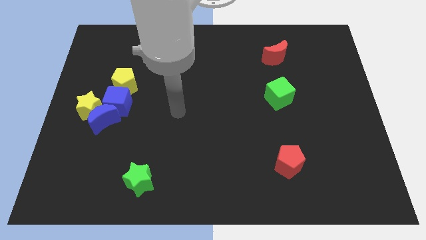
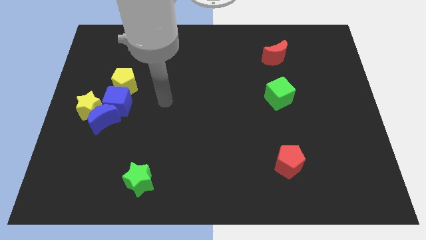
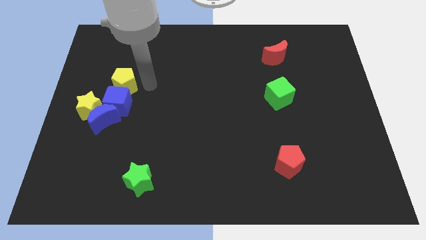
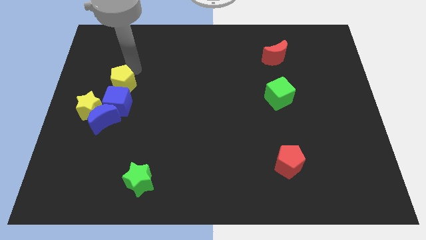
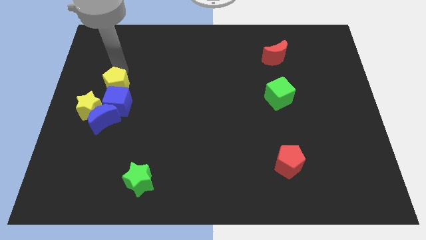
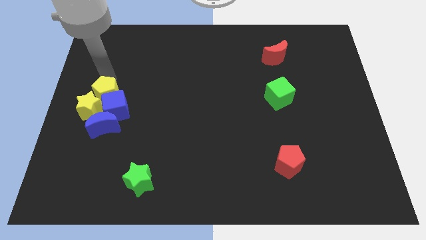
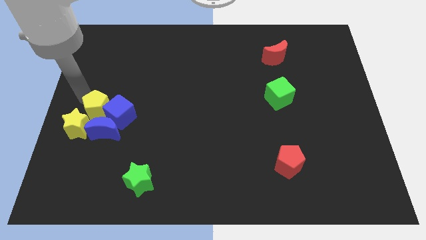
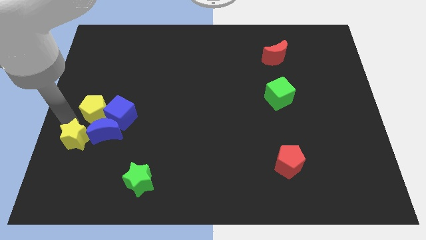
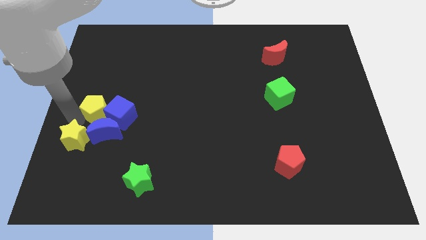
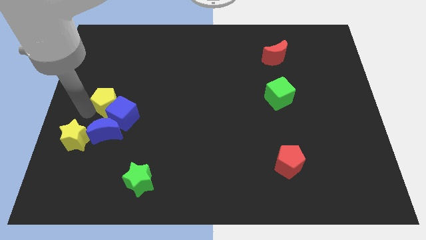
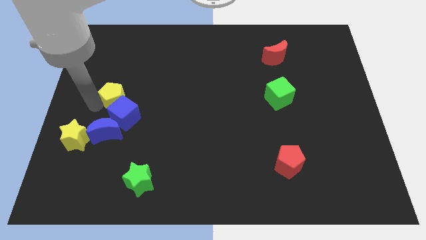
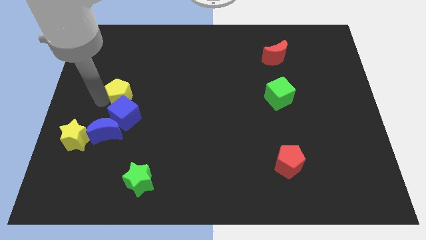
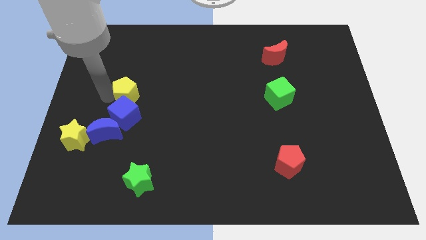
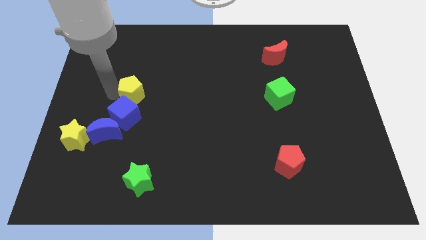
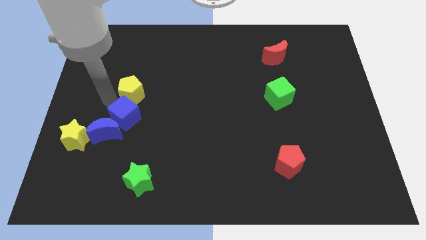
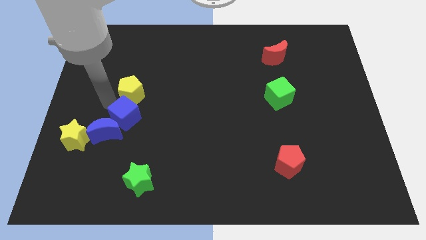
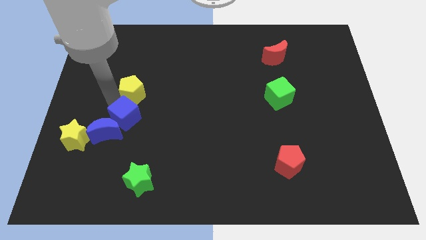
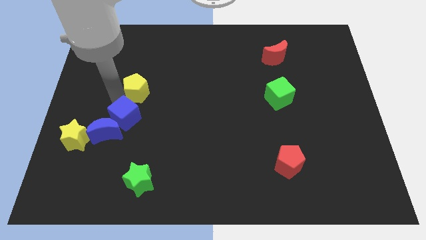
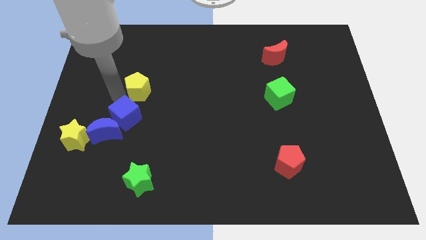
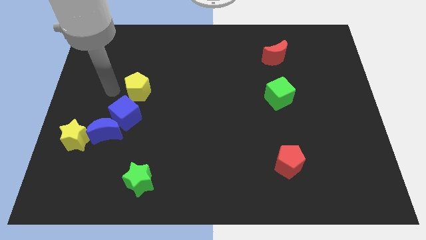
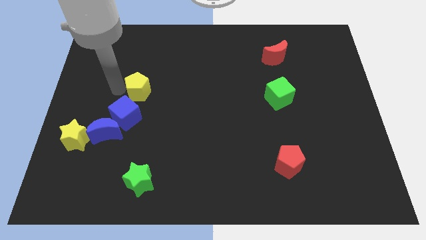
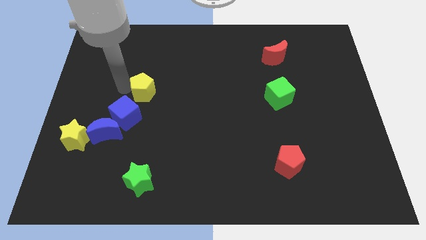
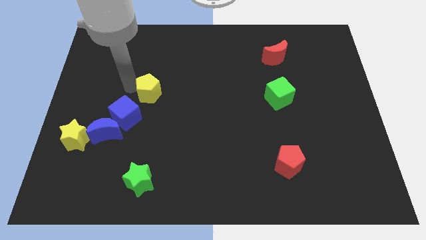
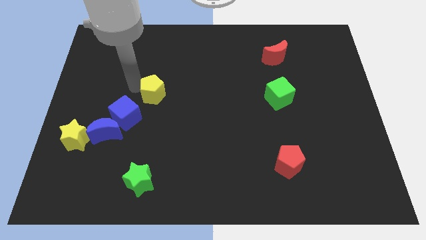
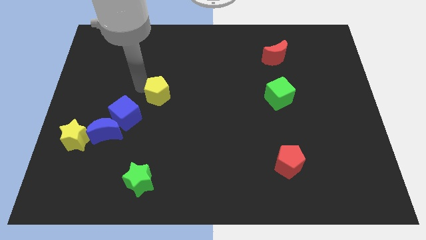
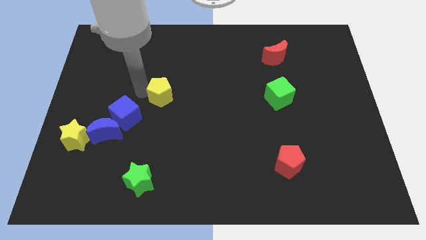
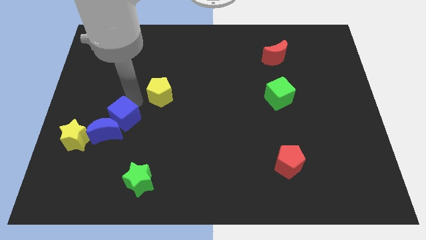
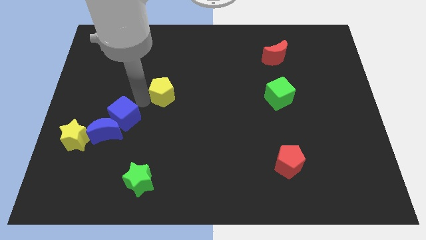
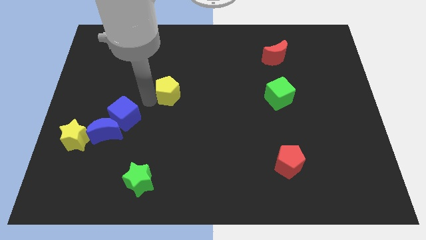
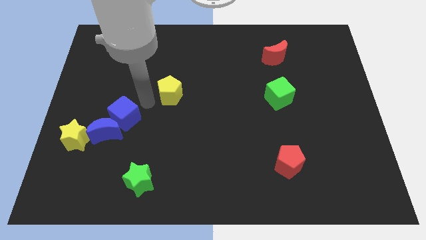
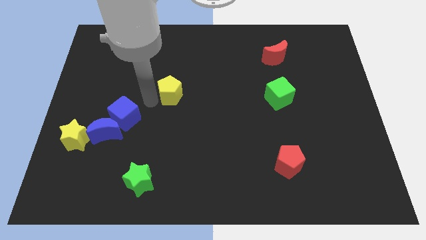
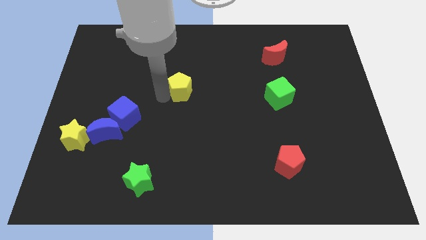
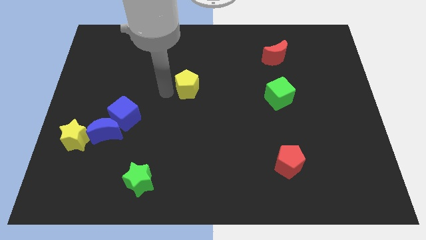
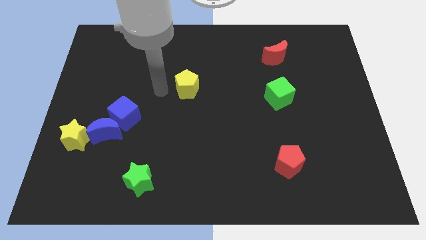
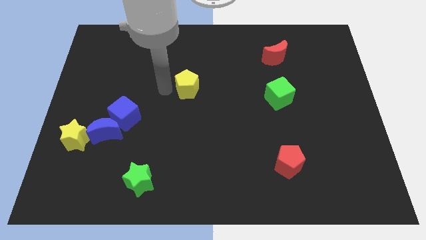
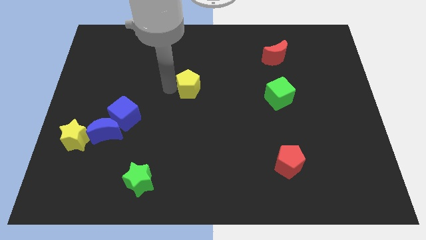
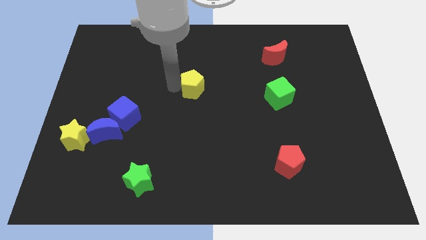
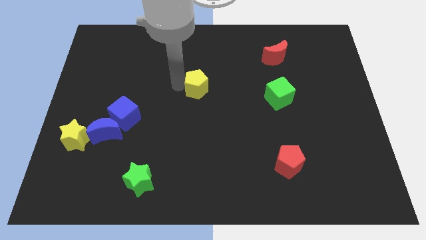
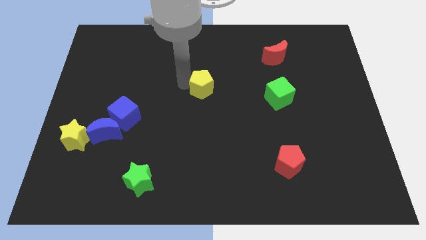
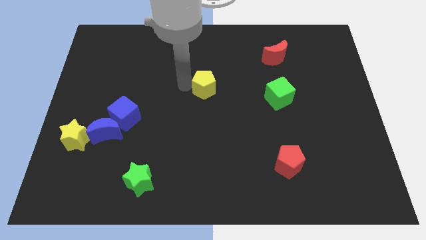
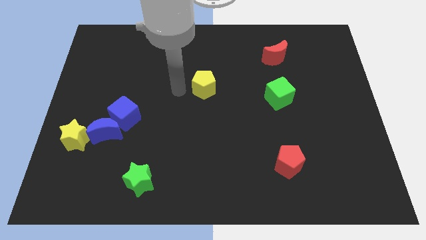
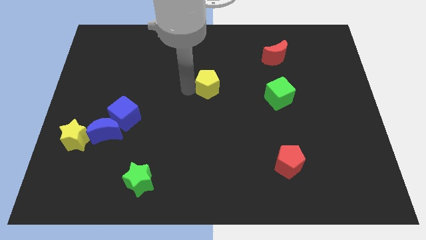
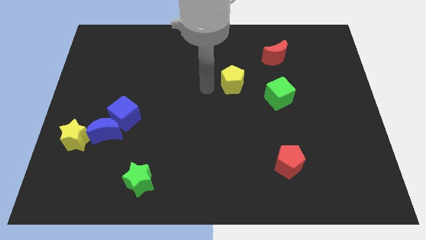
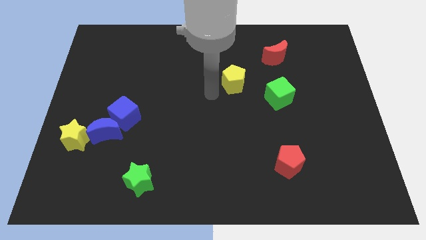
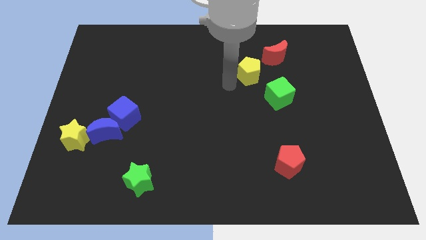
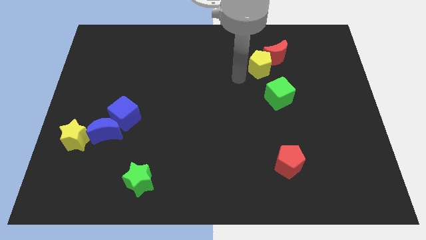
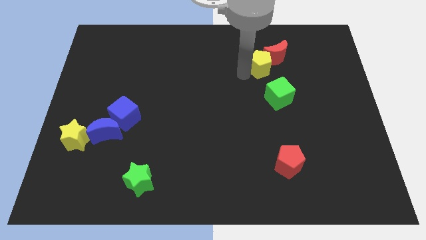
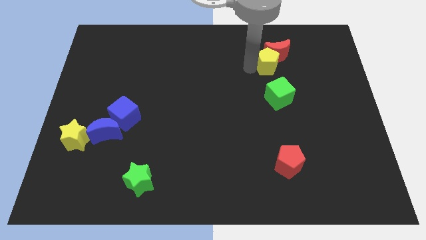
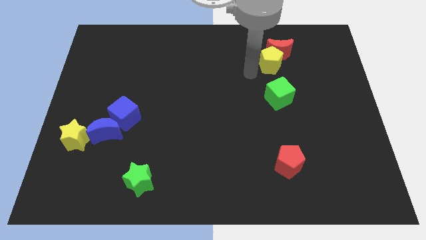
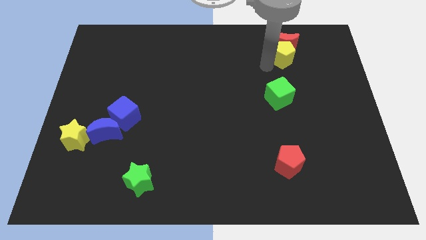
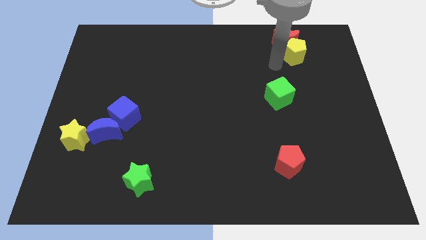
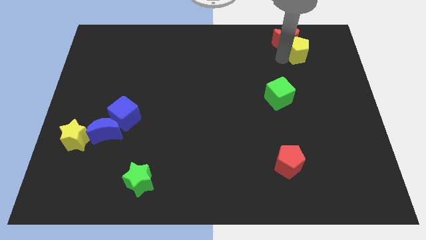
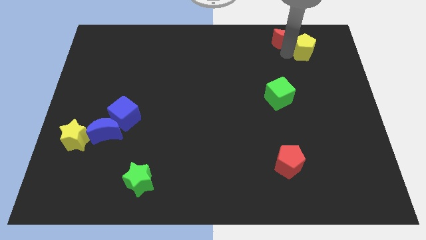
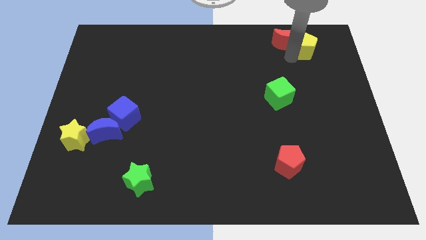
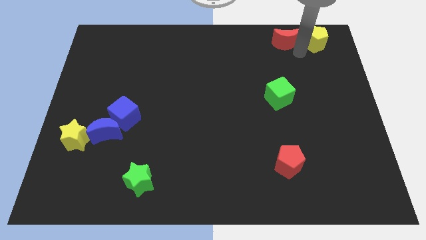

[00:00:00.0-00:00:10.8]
slide the yellow pentagon to the top right of the board

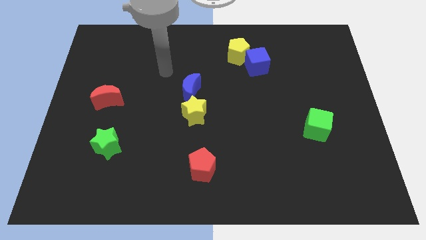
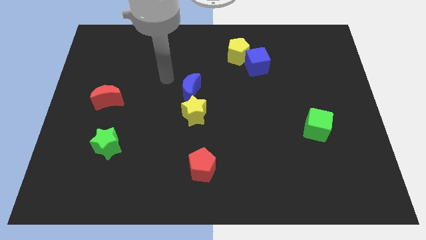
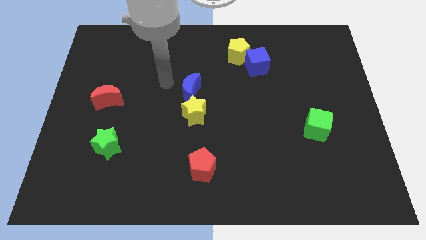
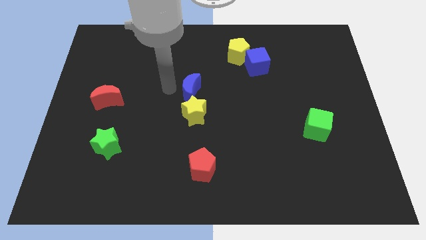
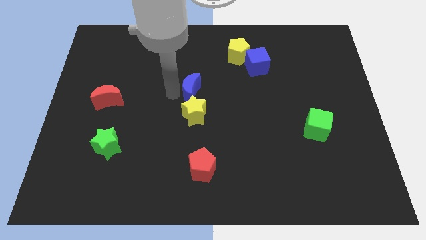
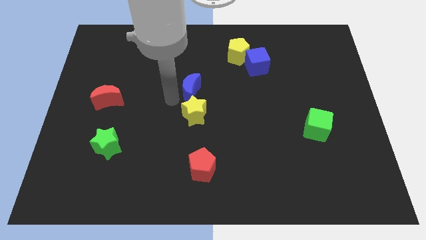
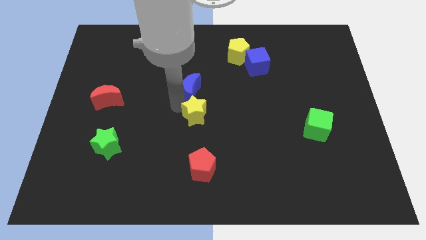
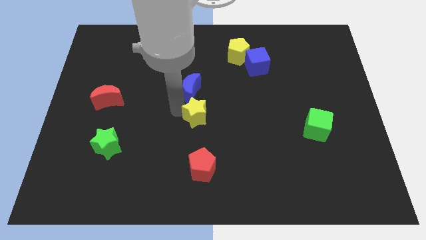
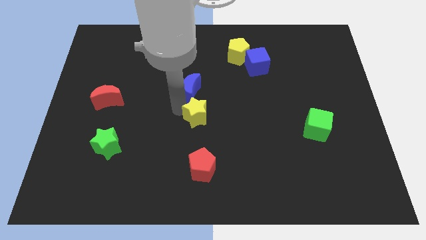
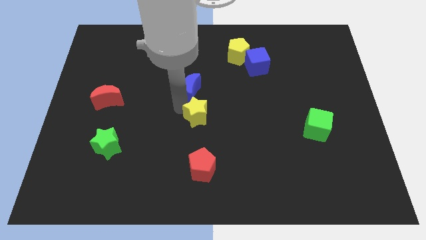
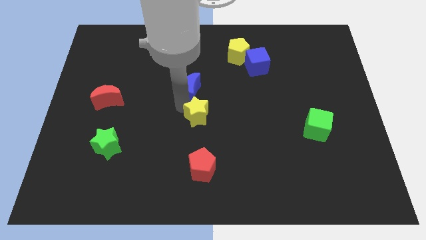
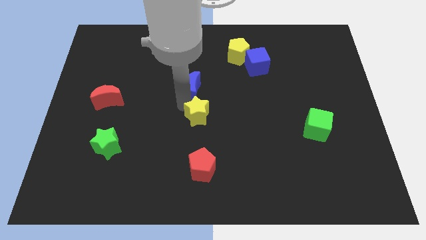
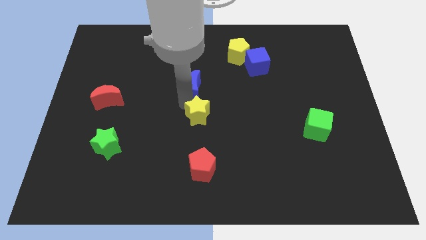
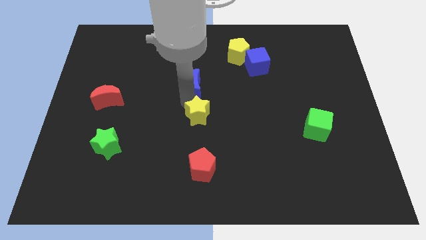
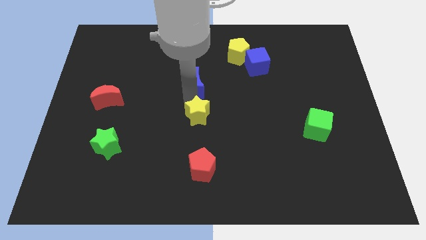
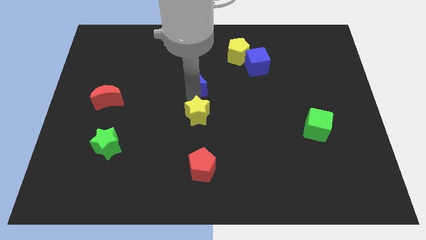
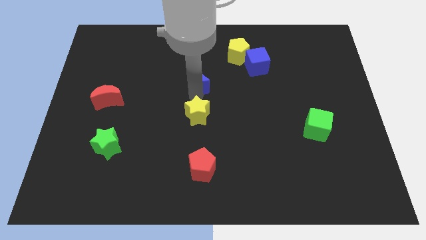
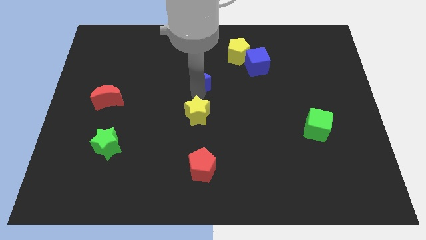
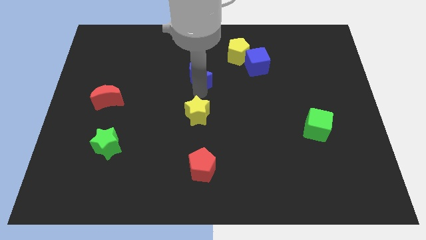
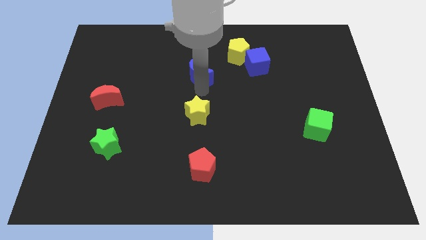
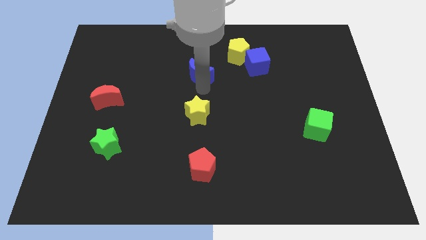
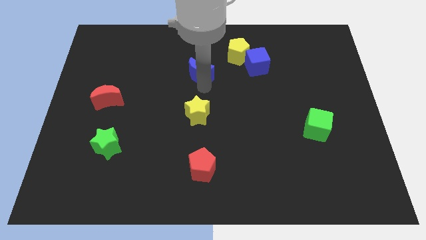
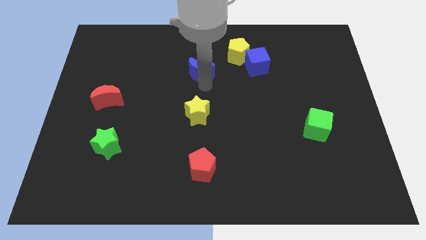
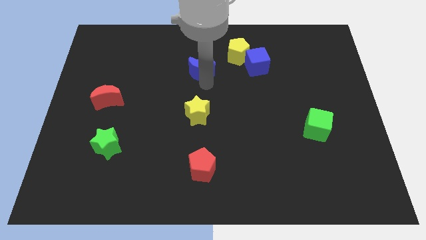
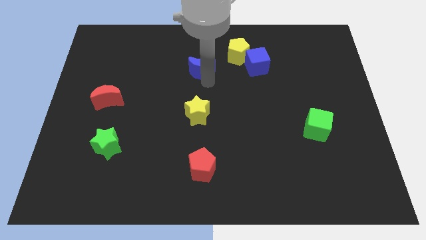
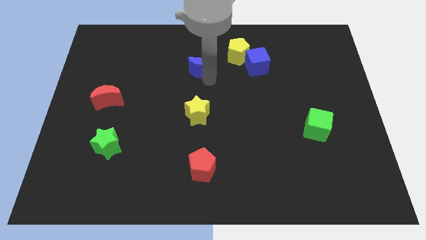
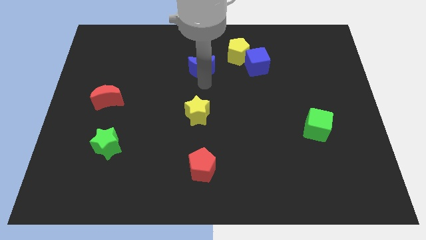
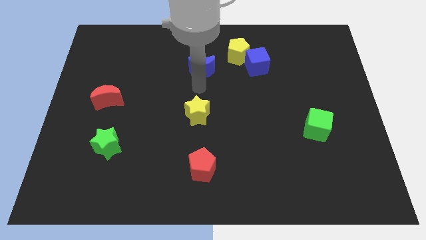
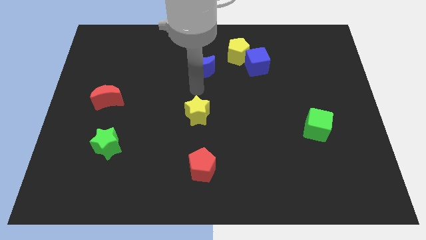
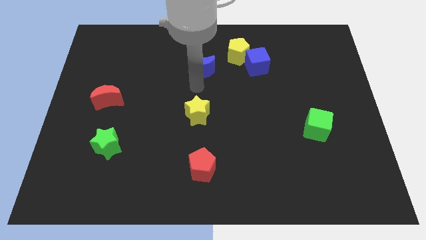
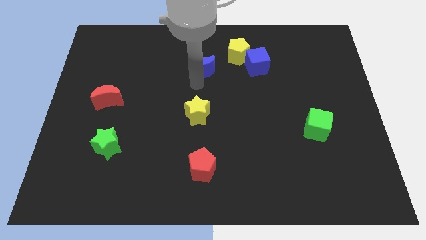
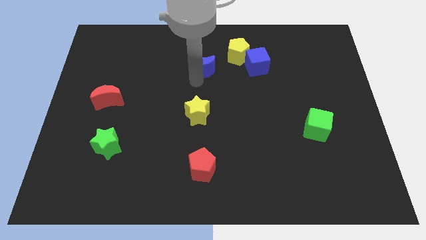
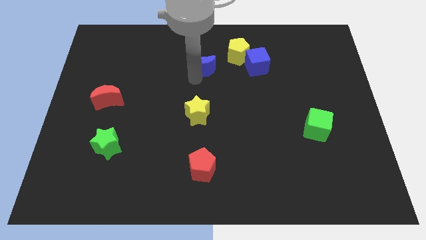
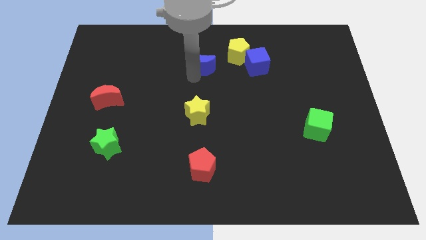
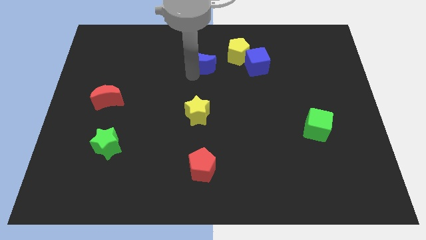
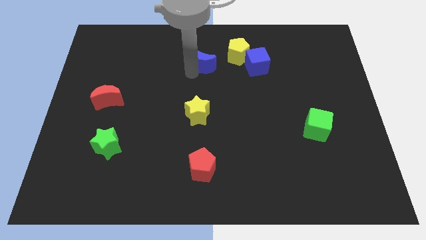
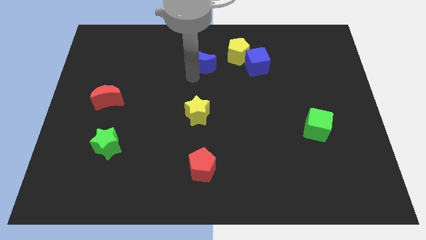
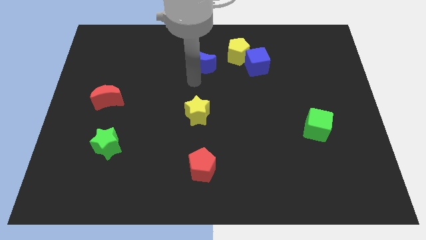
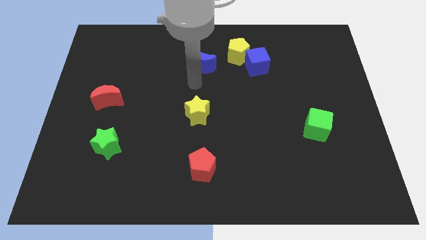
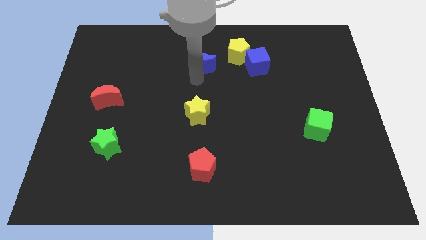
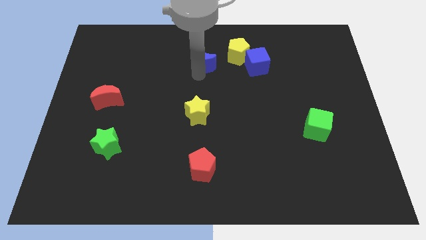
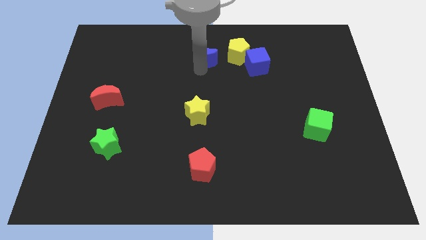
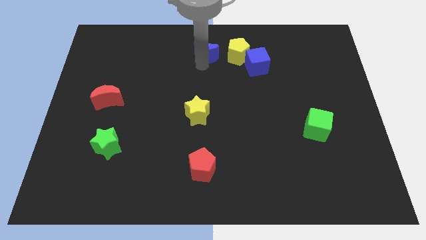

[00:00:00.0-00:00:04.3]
push the blue moon to the top side
